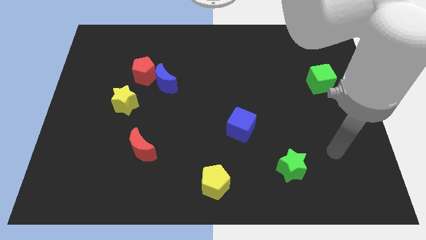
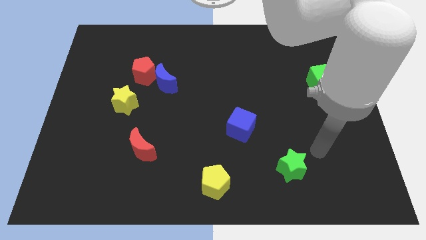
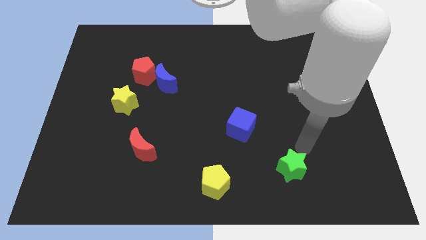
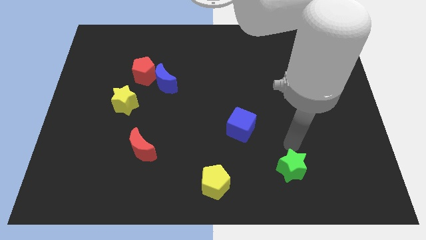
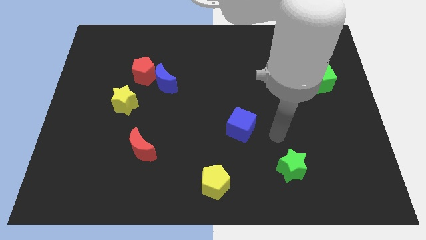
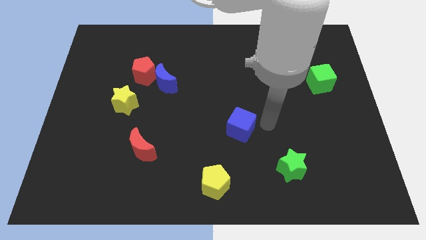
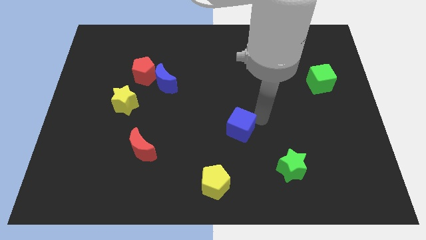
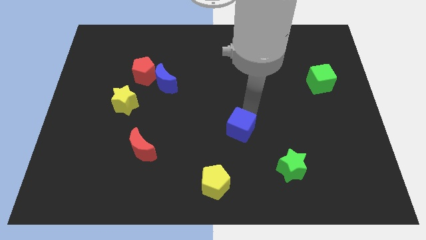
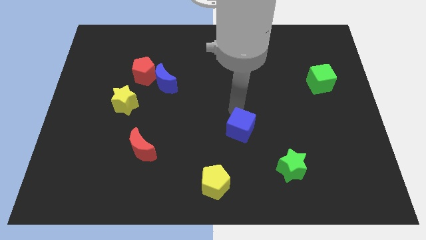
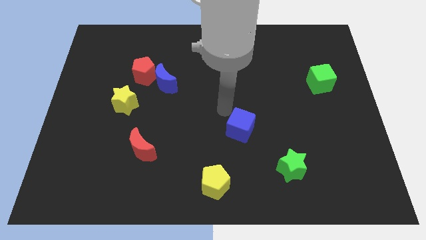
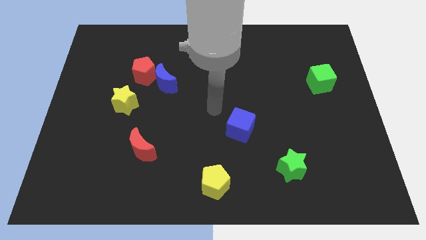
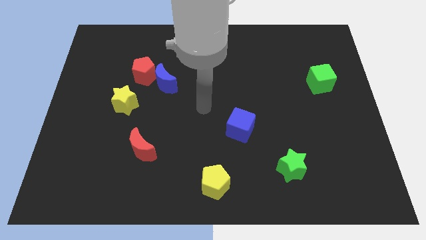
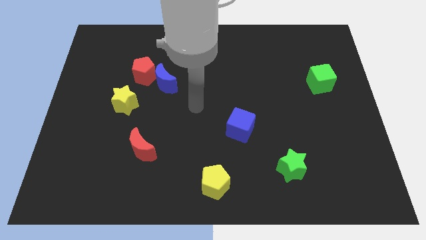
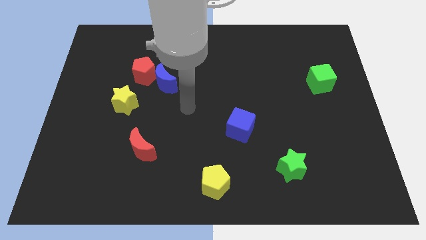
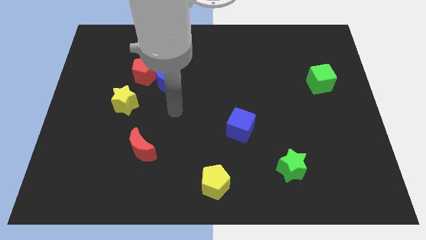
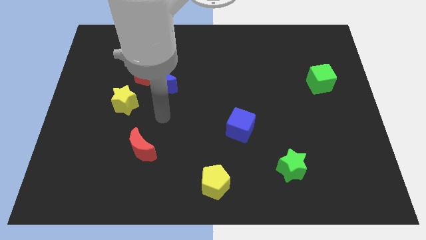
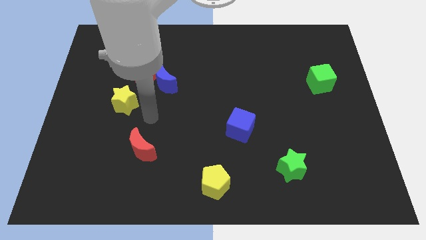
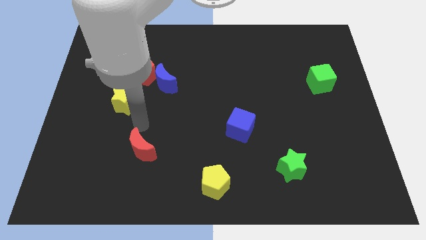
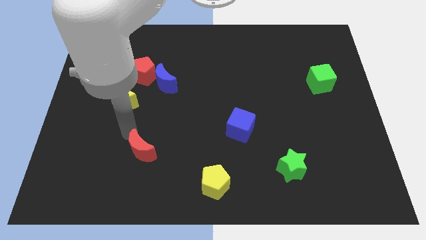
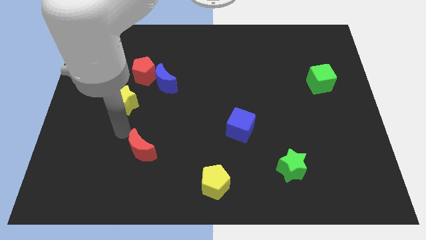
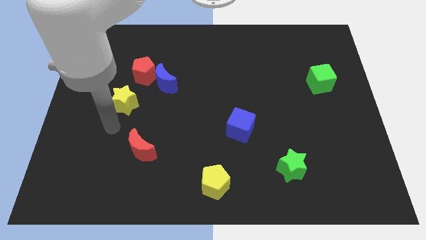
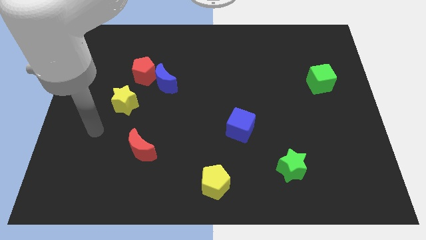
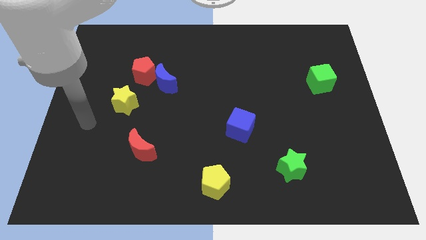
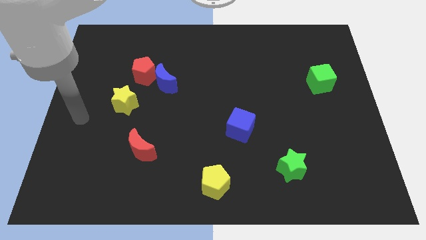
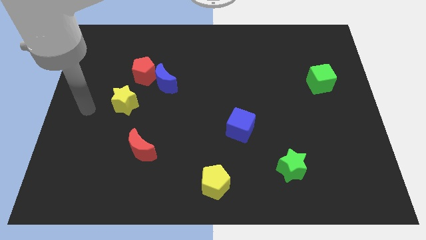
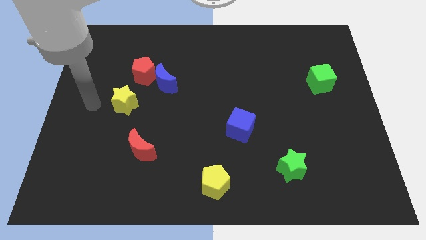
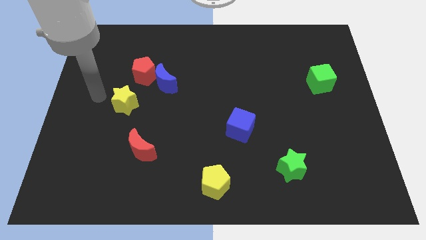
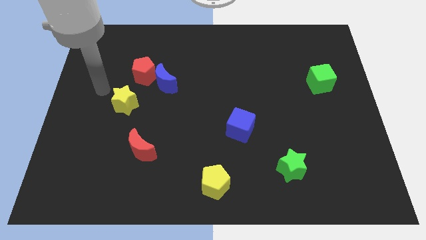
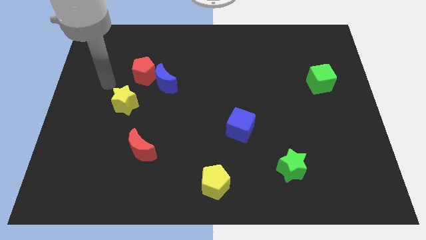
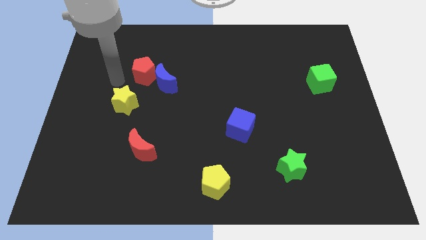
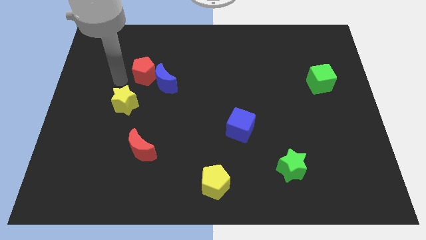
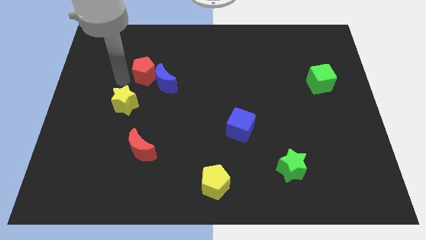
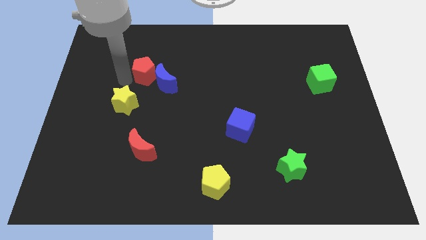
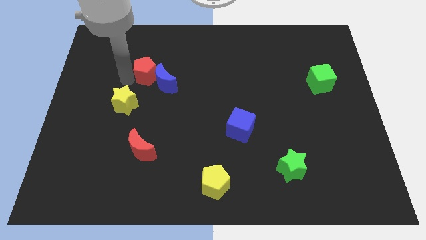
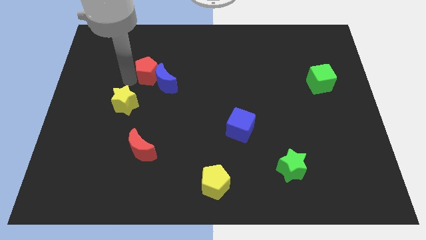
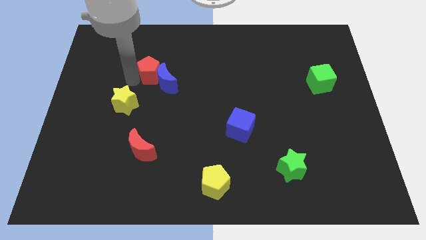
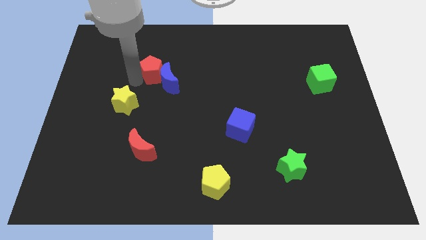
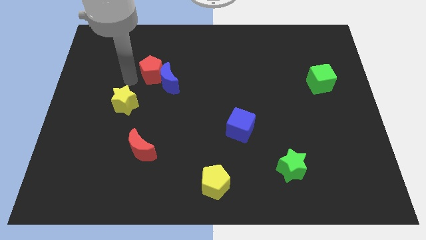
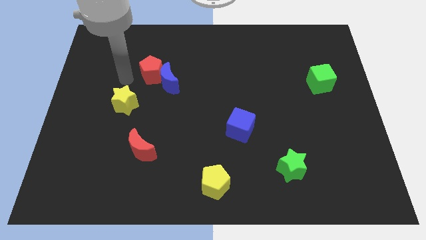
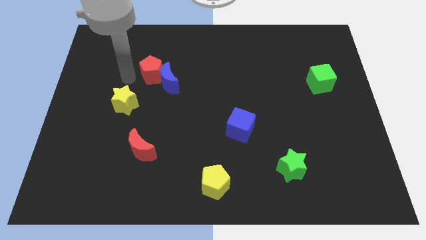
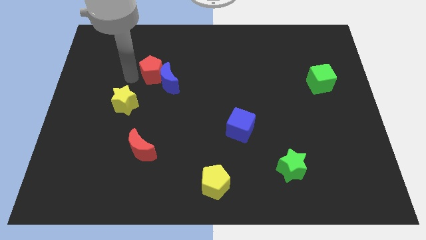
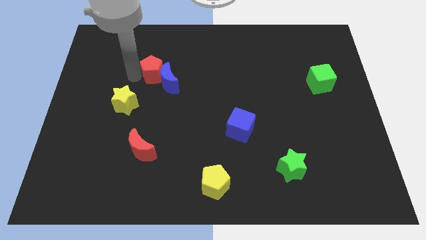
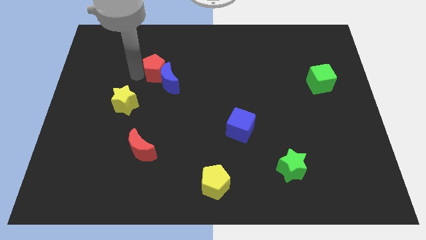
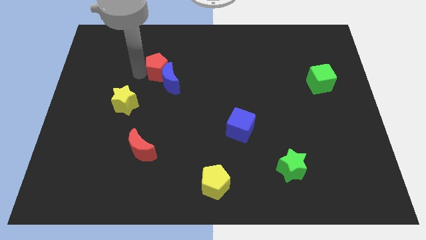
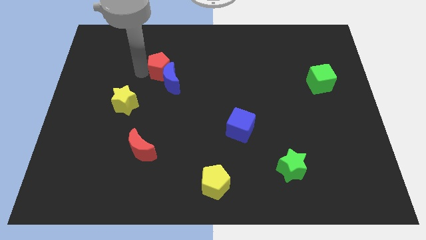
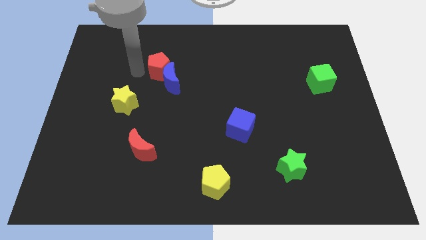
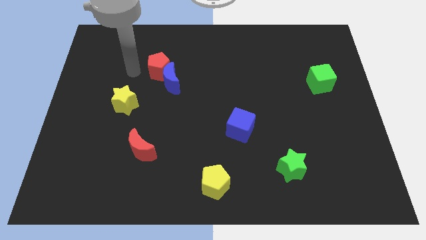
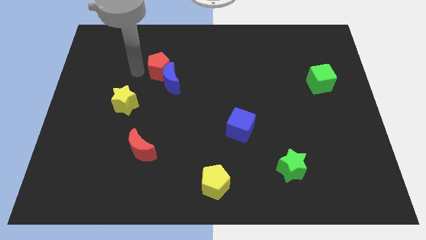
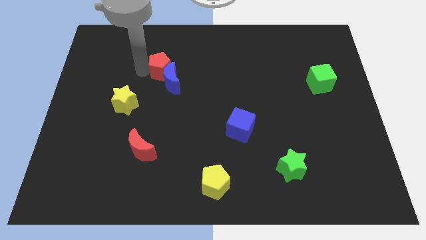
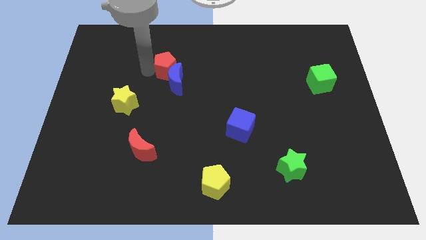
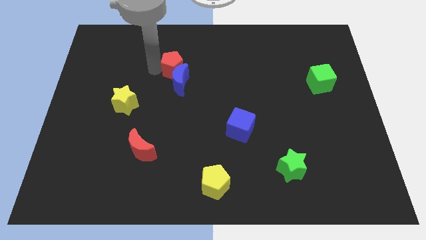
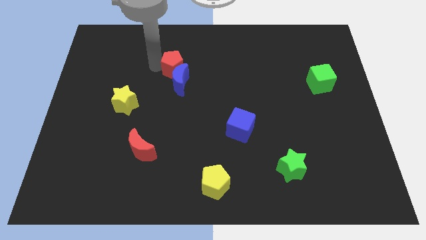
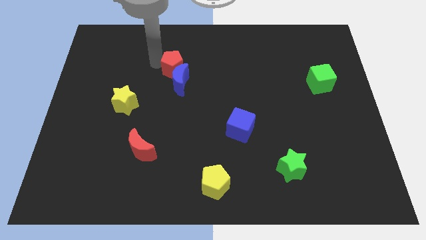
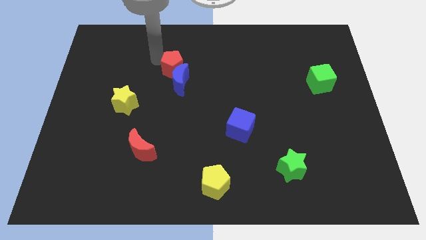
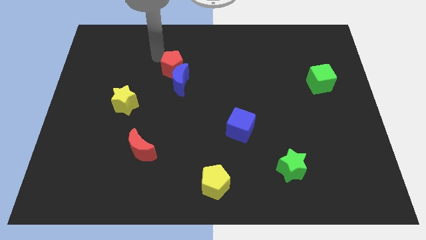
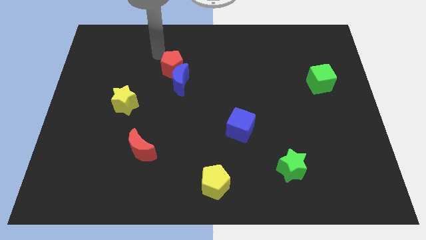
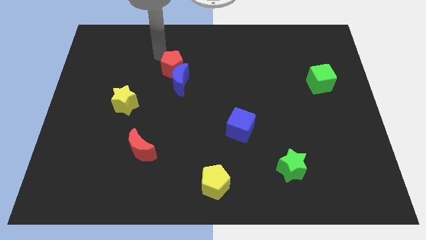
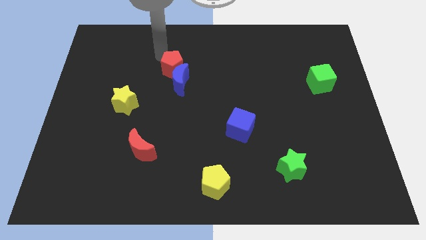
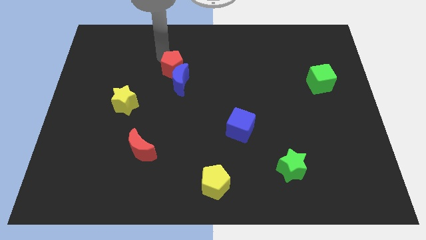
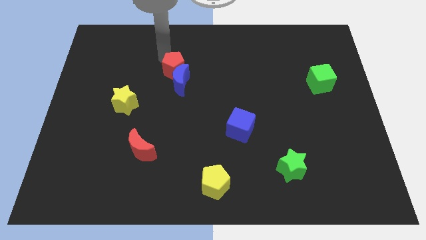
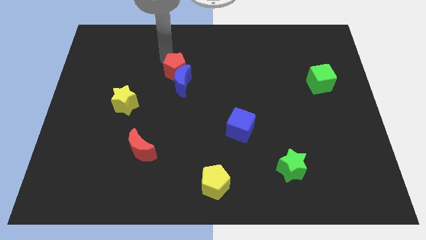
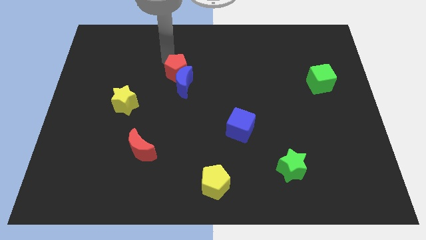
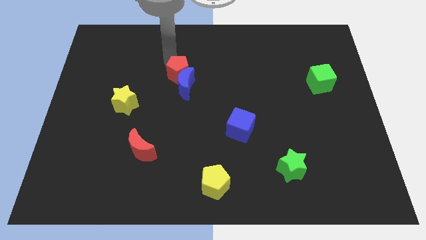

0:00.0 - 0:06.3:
put the red pentagon to the middle of the board
